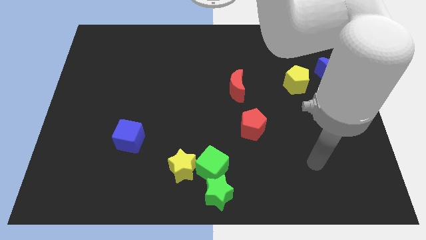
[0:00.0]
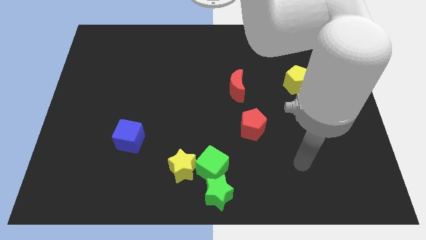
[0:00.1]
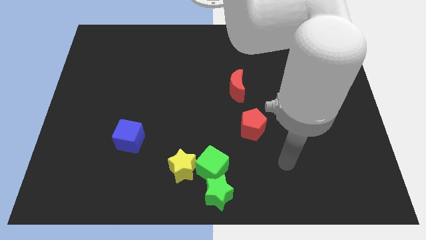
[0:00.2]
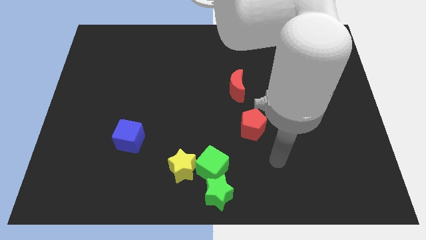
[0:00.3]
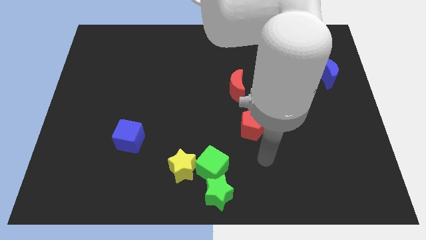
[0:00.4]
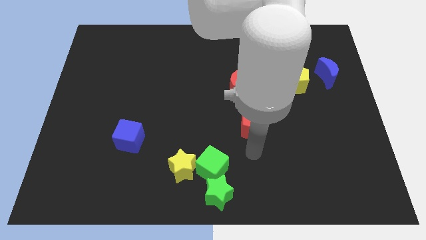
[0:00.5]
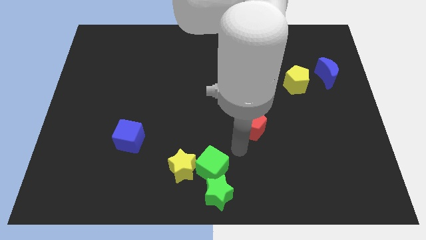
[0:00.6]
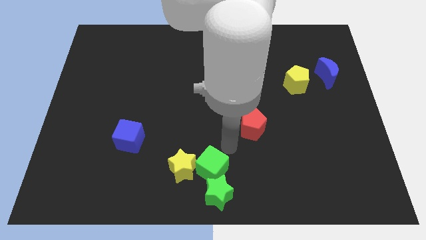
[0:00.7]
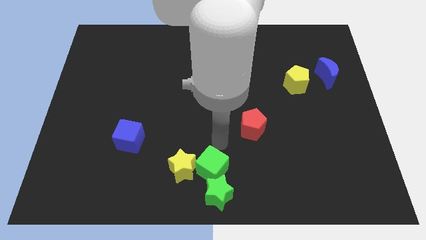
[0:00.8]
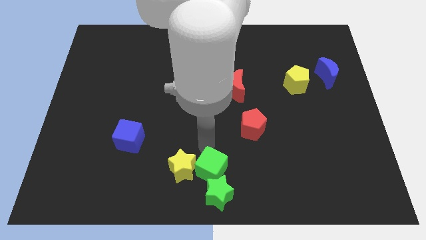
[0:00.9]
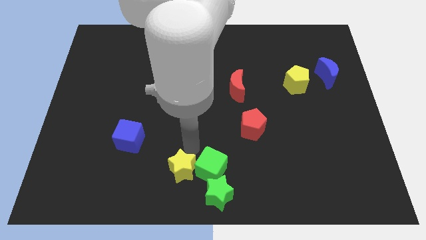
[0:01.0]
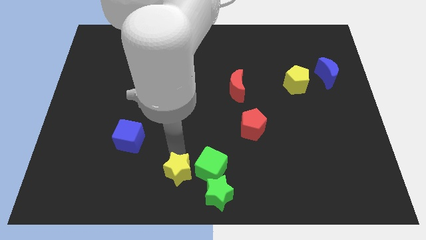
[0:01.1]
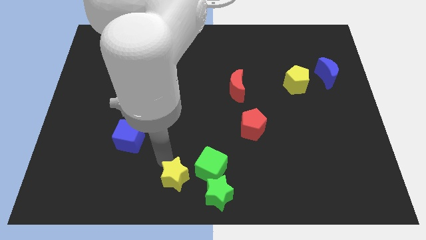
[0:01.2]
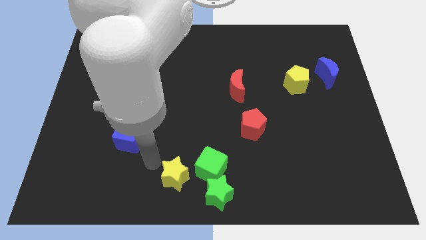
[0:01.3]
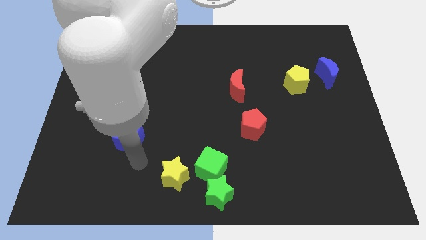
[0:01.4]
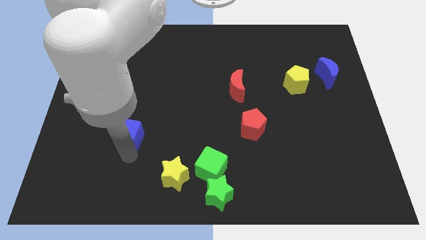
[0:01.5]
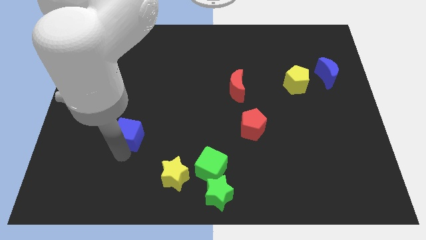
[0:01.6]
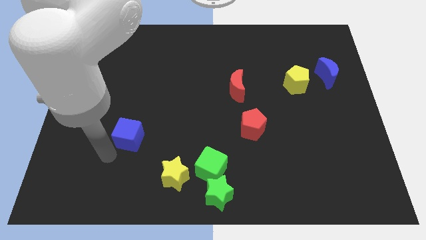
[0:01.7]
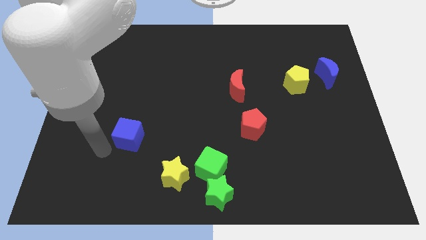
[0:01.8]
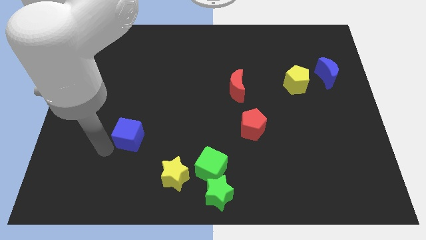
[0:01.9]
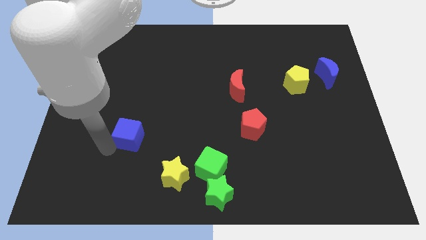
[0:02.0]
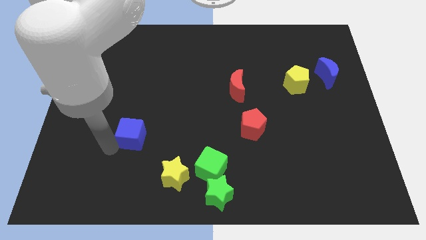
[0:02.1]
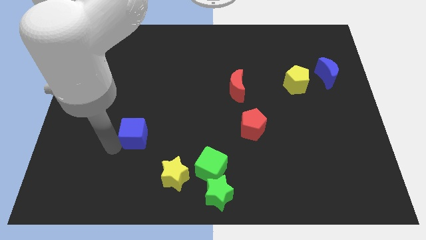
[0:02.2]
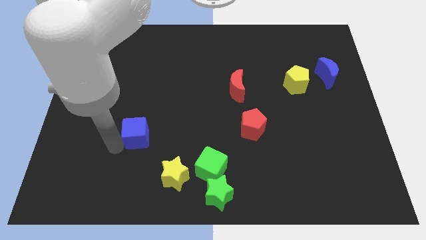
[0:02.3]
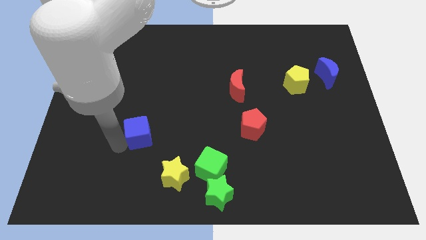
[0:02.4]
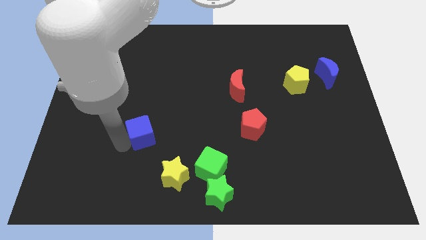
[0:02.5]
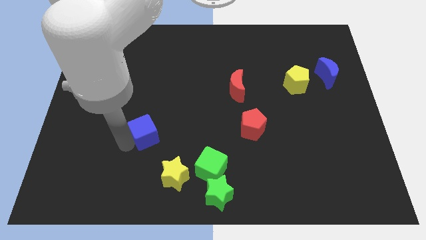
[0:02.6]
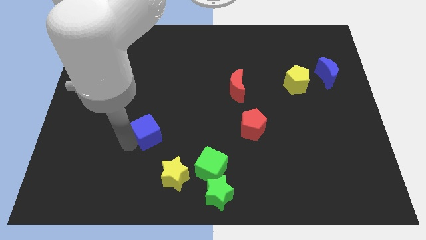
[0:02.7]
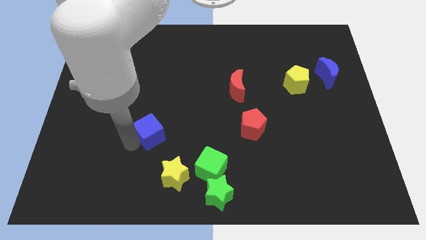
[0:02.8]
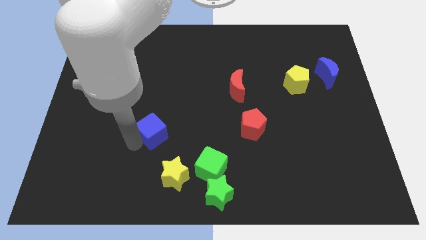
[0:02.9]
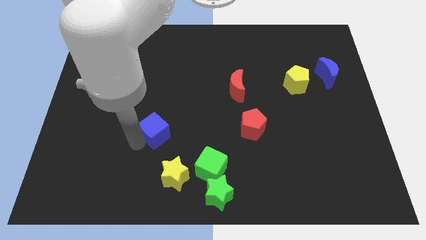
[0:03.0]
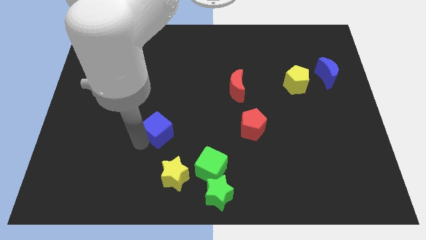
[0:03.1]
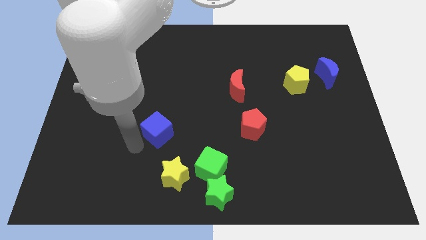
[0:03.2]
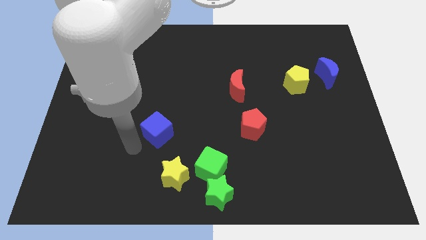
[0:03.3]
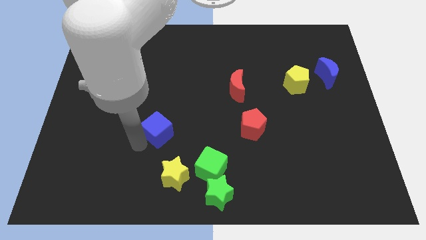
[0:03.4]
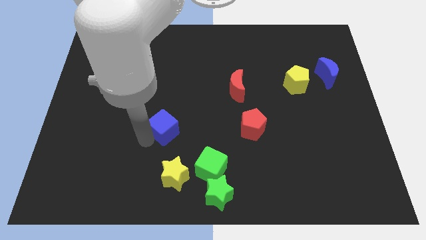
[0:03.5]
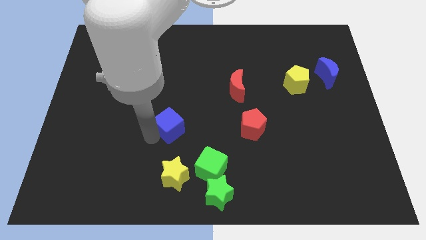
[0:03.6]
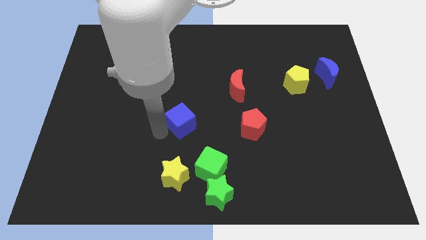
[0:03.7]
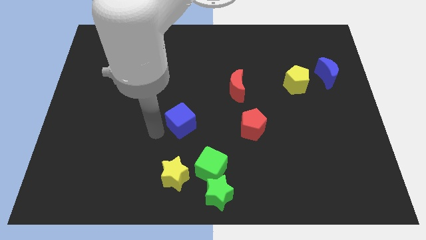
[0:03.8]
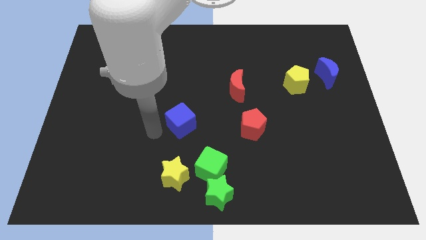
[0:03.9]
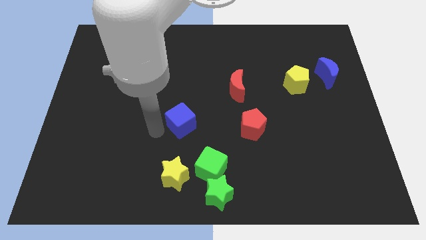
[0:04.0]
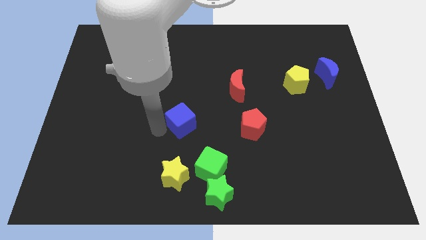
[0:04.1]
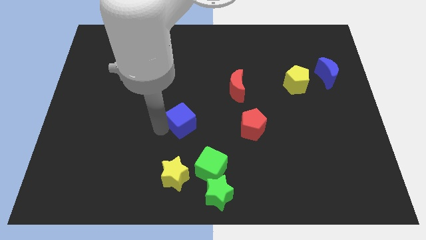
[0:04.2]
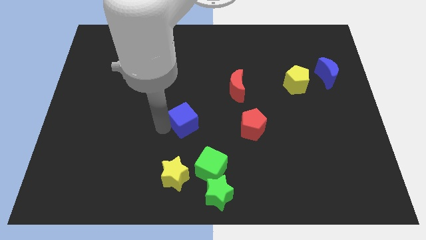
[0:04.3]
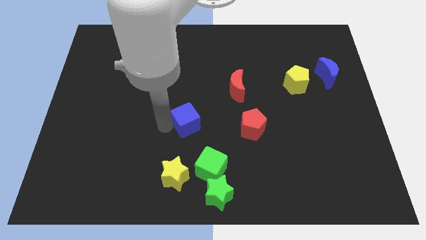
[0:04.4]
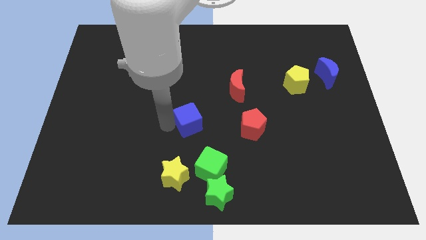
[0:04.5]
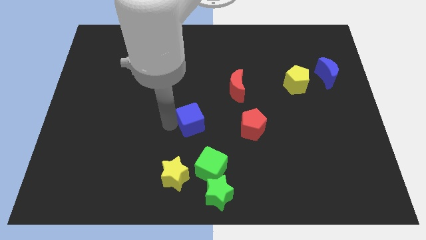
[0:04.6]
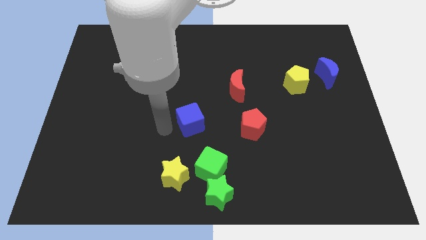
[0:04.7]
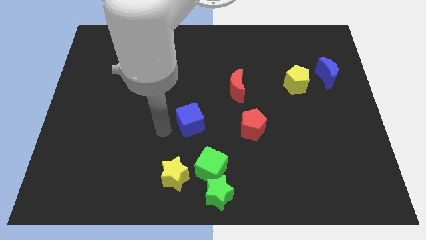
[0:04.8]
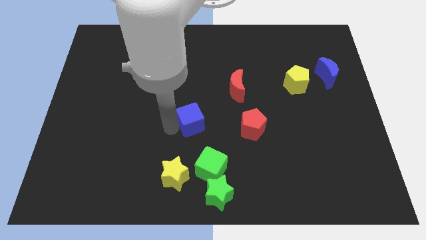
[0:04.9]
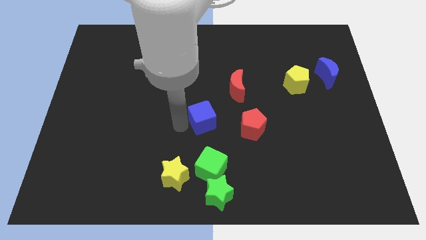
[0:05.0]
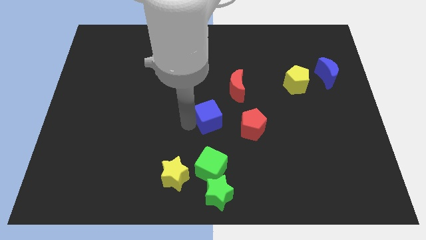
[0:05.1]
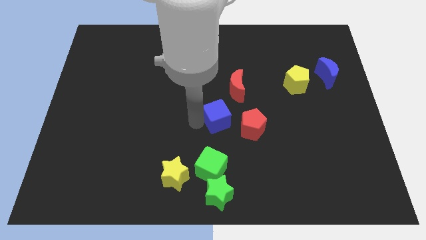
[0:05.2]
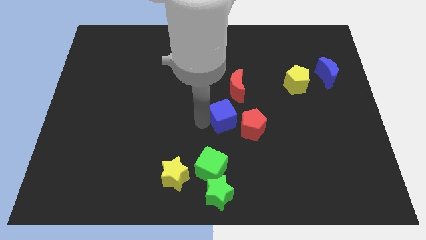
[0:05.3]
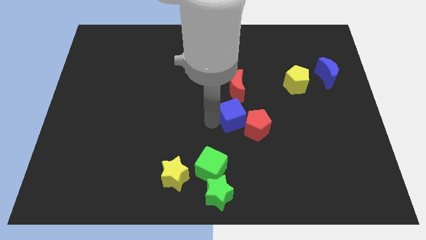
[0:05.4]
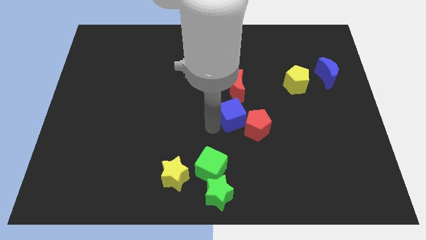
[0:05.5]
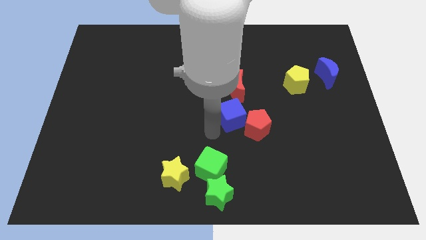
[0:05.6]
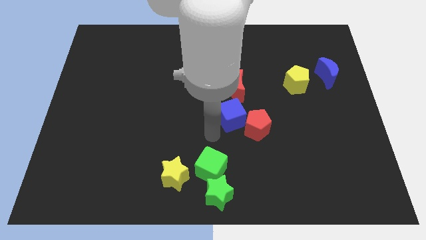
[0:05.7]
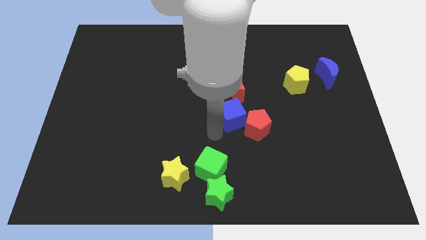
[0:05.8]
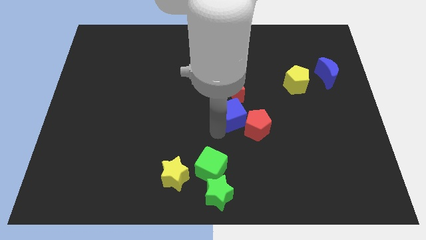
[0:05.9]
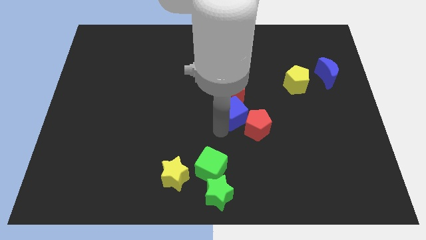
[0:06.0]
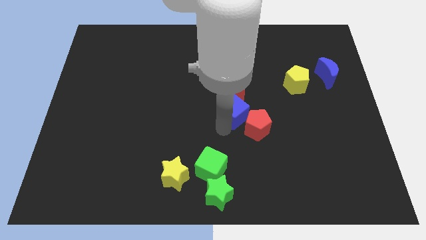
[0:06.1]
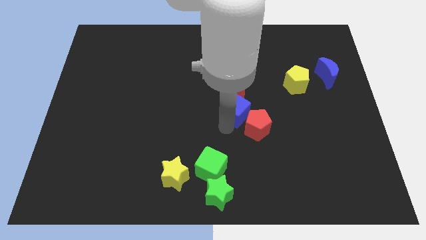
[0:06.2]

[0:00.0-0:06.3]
put the blue cube to the top of the red pentagon

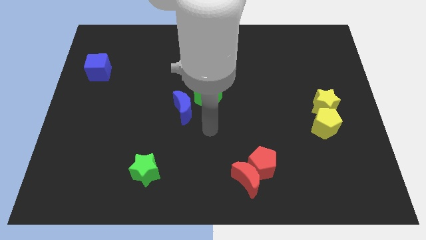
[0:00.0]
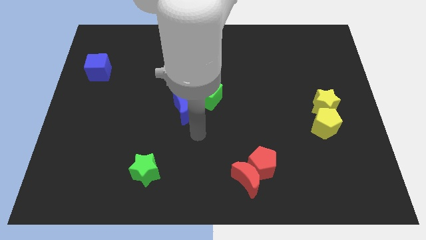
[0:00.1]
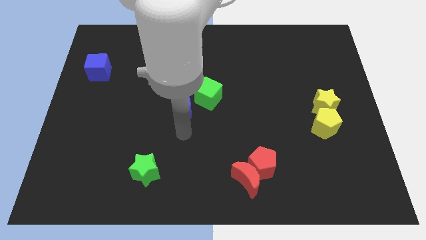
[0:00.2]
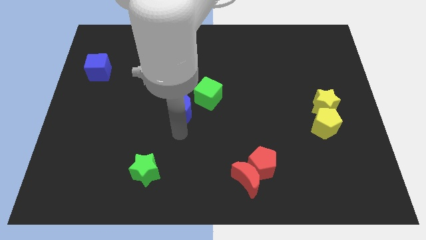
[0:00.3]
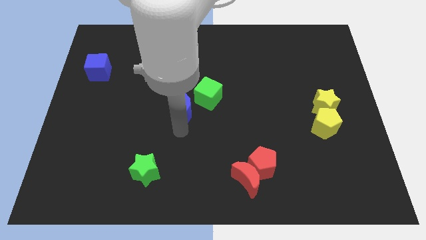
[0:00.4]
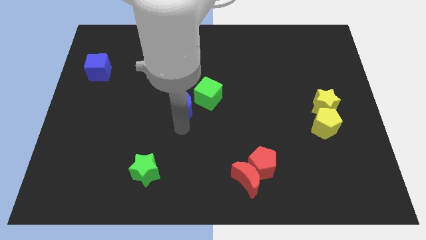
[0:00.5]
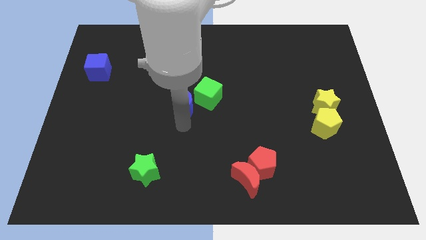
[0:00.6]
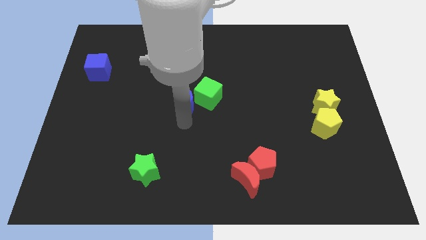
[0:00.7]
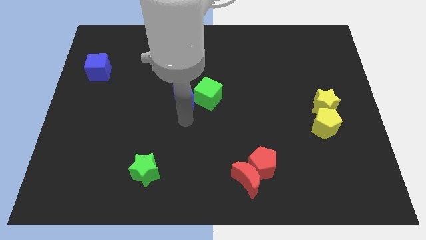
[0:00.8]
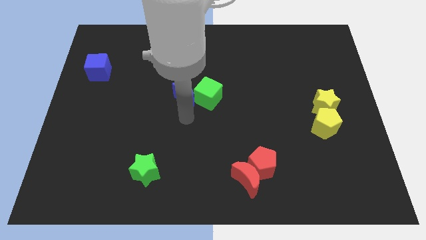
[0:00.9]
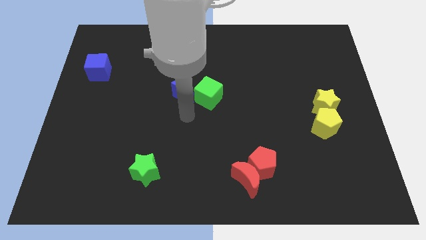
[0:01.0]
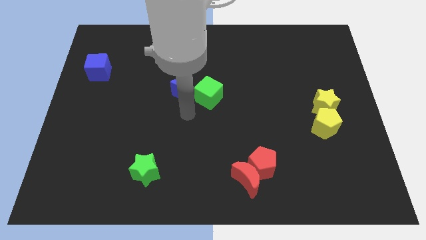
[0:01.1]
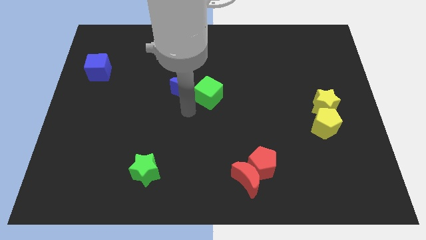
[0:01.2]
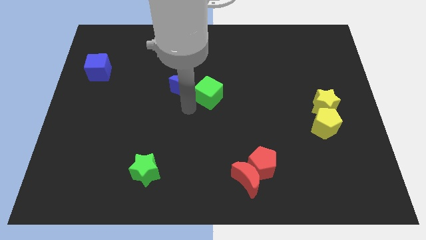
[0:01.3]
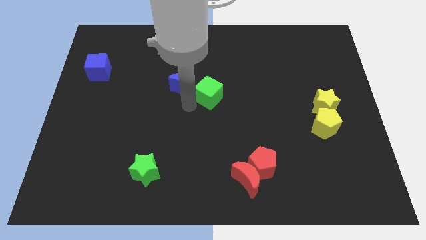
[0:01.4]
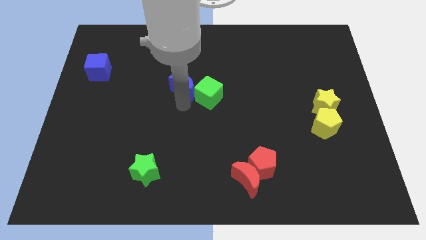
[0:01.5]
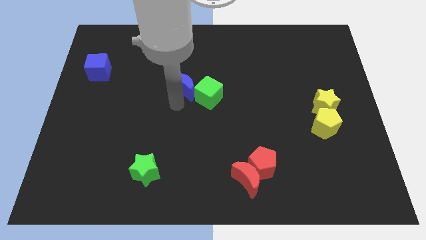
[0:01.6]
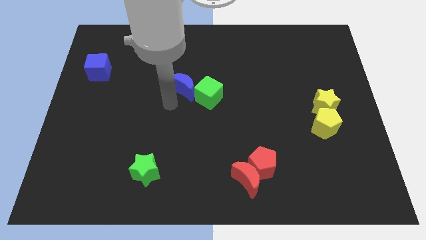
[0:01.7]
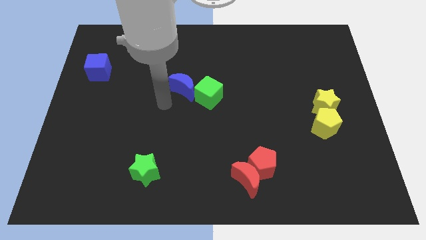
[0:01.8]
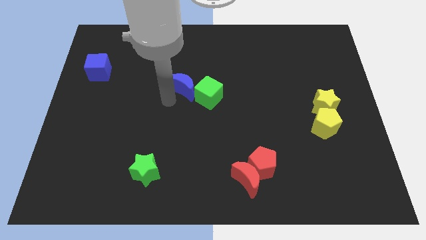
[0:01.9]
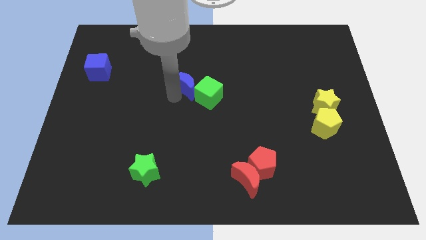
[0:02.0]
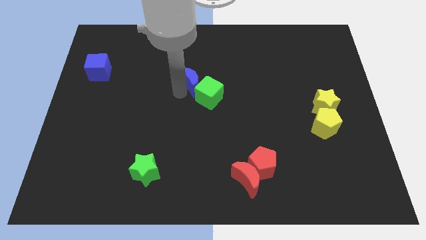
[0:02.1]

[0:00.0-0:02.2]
move the blue moon above the green cube
